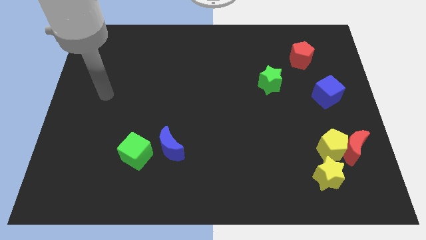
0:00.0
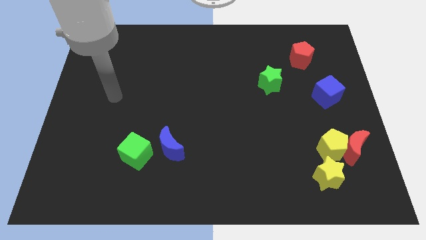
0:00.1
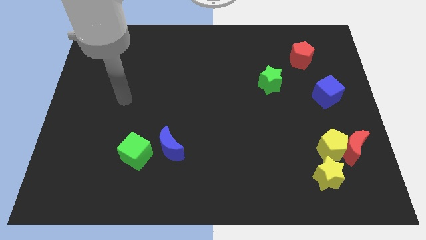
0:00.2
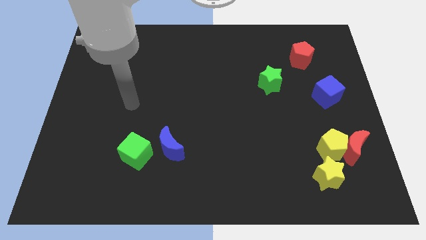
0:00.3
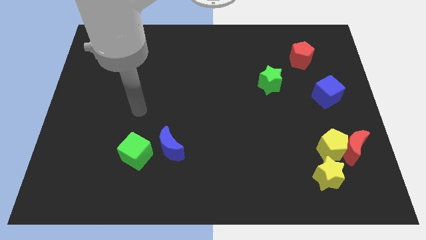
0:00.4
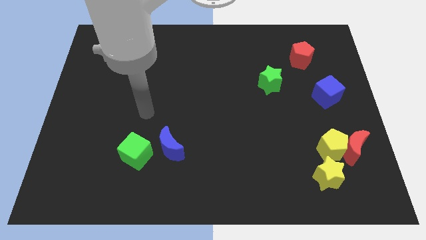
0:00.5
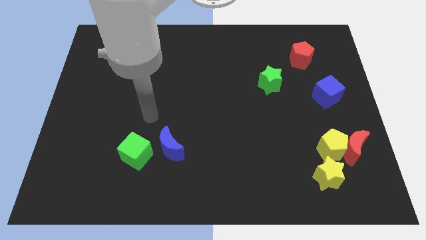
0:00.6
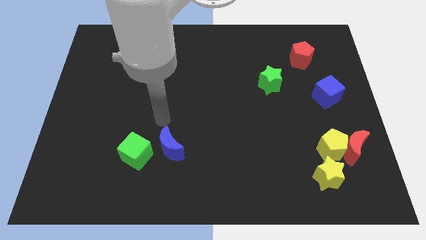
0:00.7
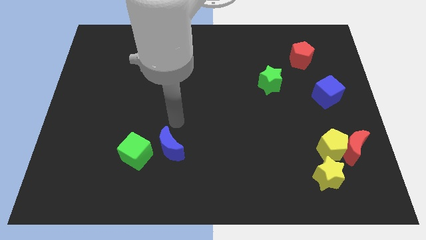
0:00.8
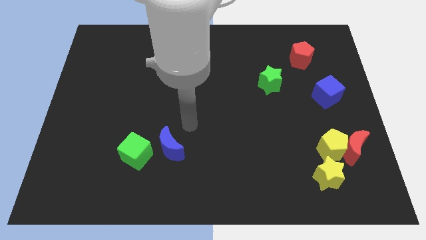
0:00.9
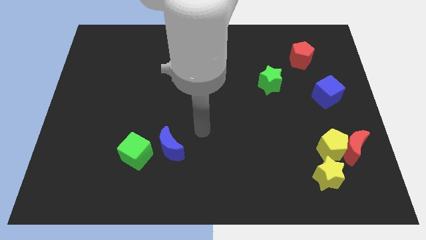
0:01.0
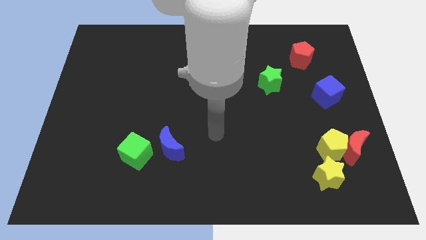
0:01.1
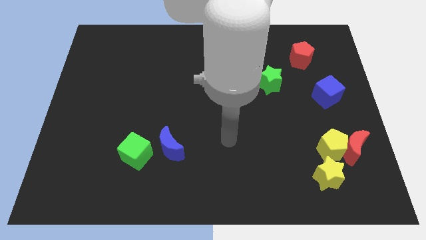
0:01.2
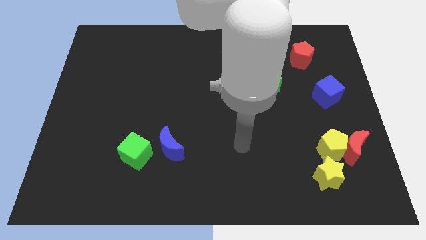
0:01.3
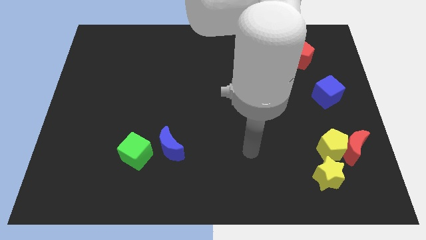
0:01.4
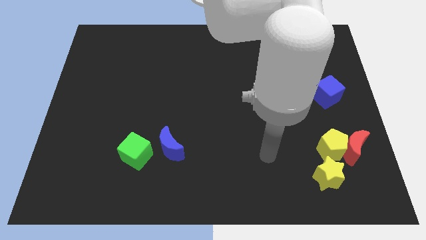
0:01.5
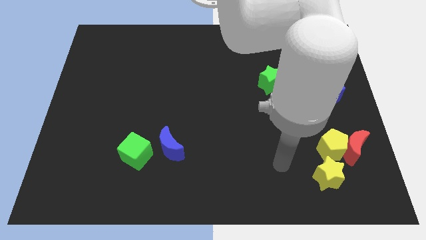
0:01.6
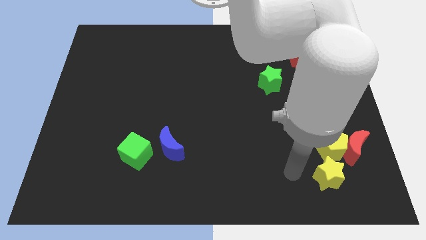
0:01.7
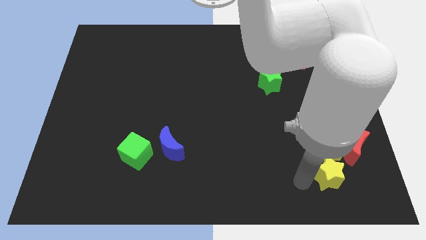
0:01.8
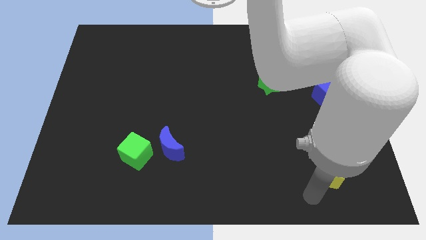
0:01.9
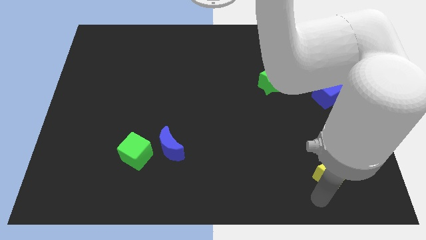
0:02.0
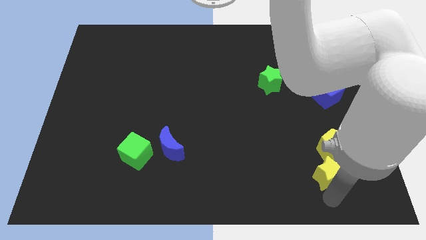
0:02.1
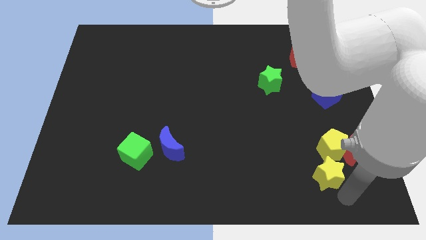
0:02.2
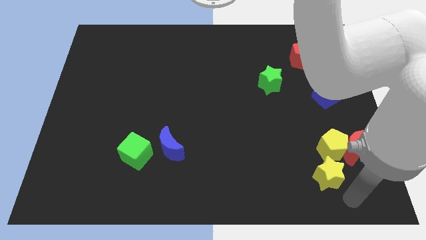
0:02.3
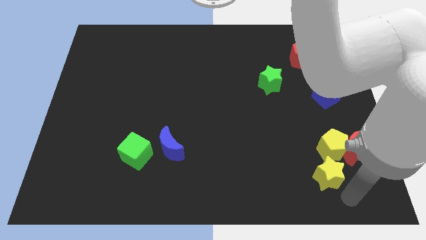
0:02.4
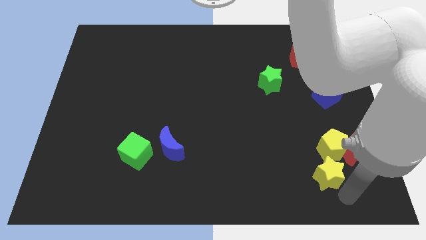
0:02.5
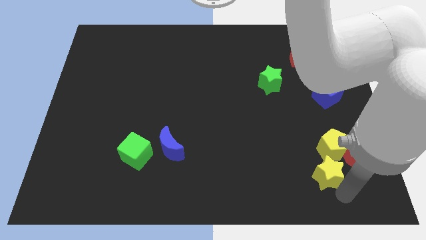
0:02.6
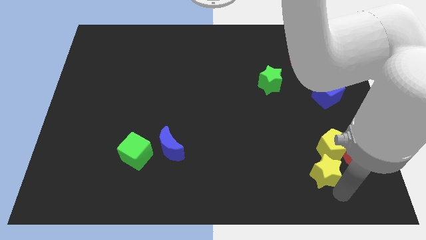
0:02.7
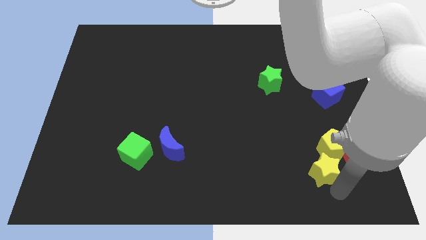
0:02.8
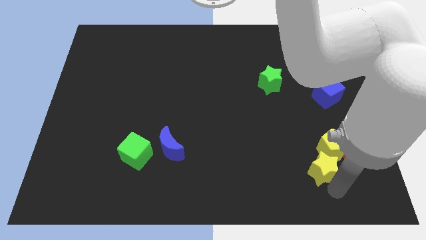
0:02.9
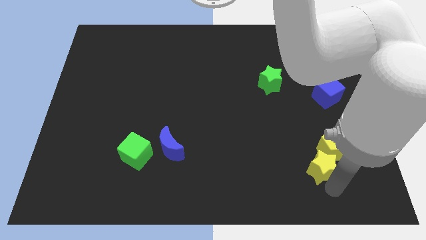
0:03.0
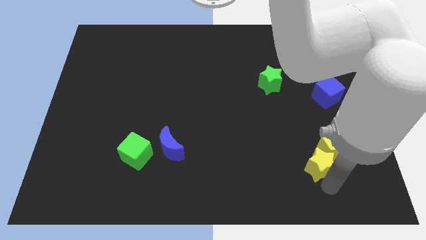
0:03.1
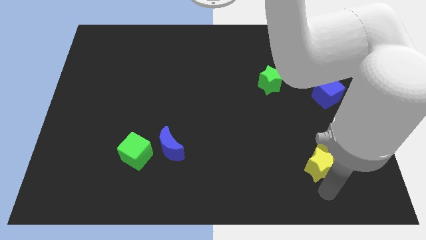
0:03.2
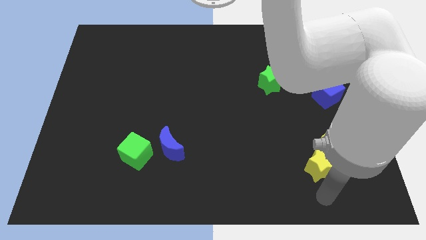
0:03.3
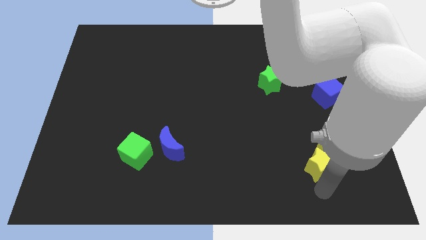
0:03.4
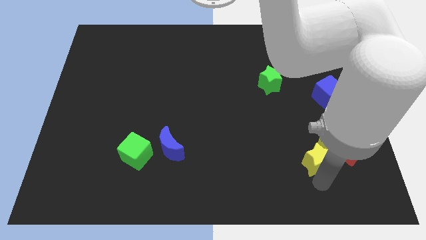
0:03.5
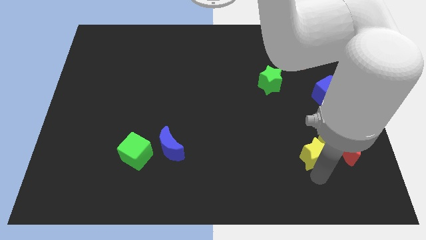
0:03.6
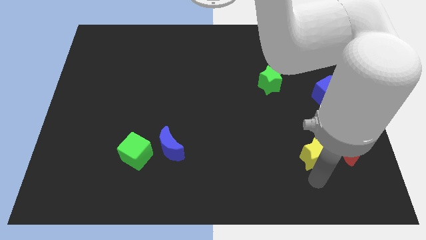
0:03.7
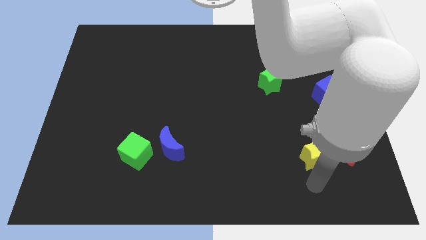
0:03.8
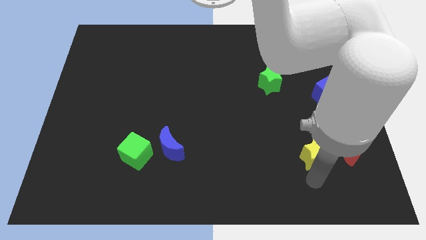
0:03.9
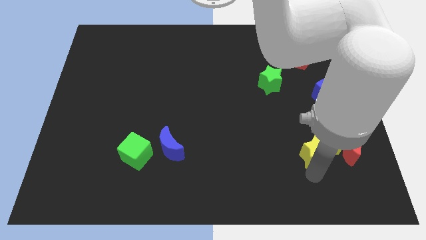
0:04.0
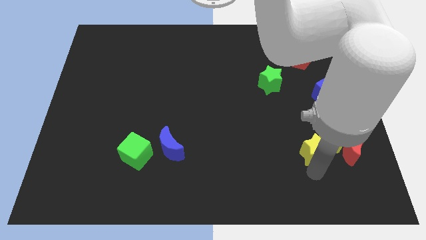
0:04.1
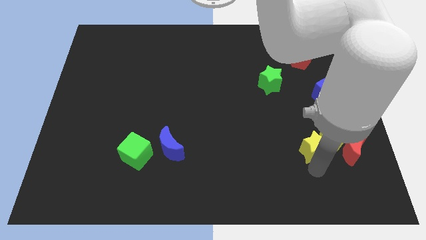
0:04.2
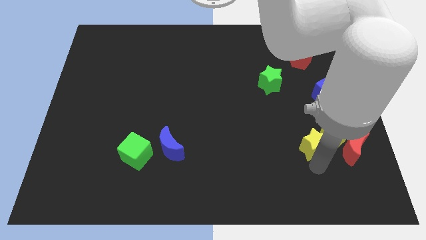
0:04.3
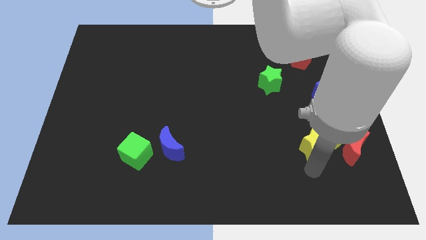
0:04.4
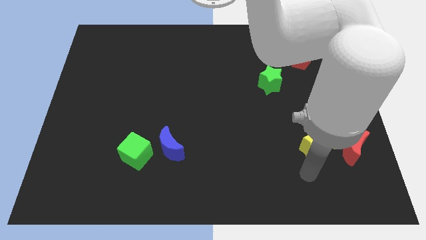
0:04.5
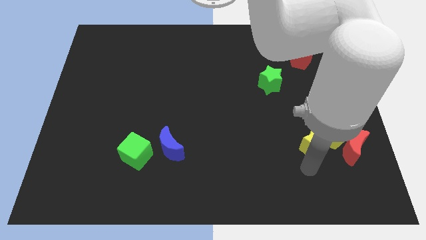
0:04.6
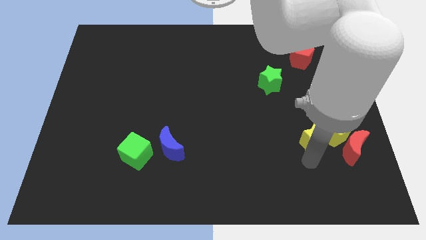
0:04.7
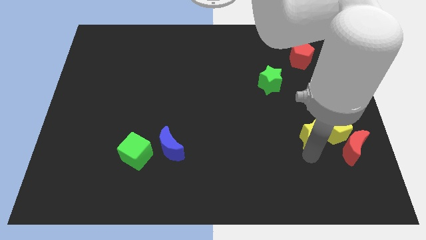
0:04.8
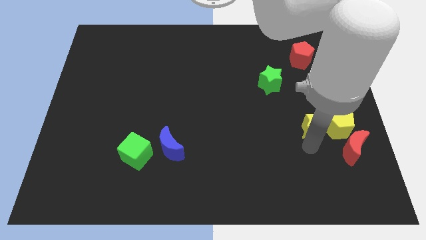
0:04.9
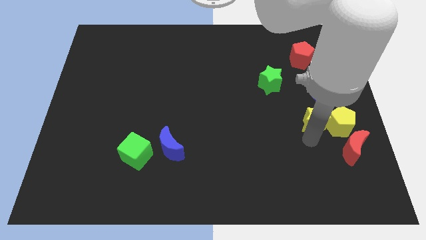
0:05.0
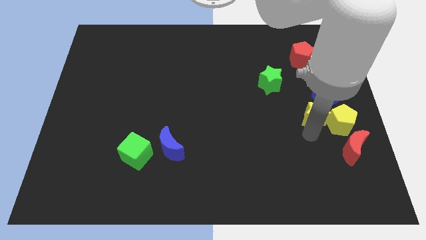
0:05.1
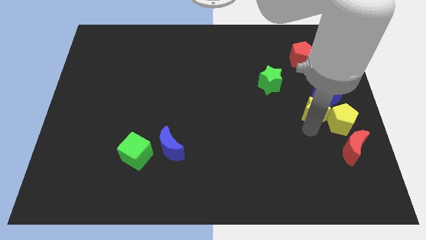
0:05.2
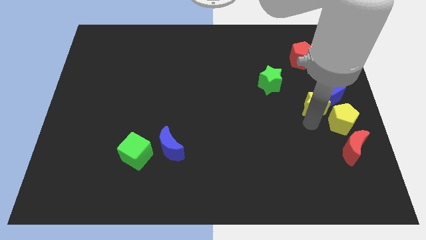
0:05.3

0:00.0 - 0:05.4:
put the yellow star next to the blue cube

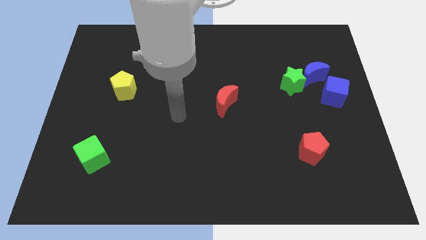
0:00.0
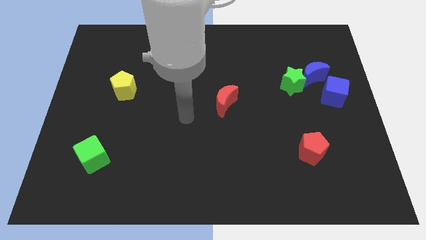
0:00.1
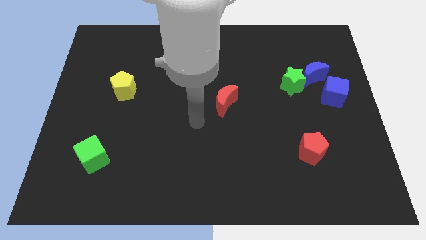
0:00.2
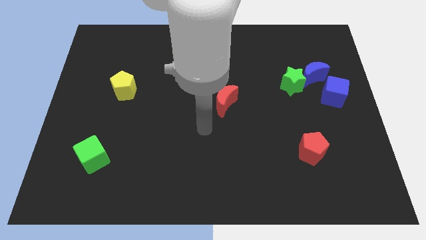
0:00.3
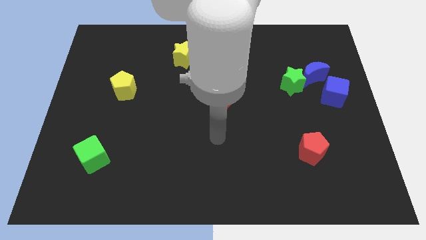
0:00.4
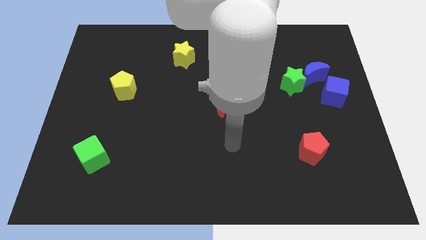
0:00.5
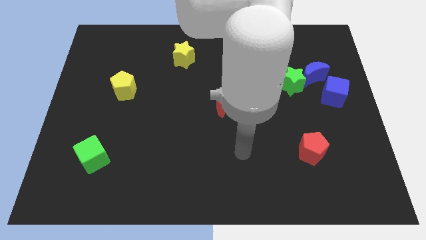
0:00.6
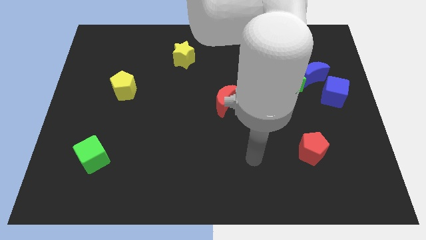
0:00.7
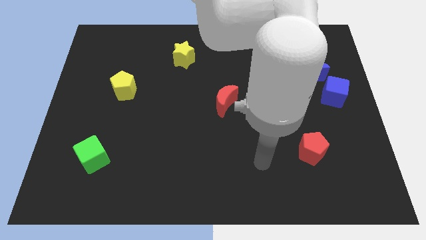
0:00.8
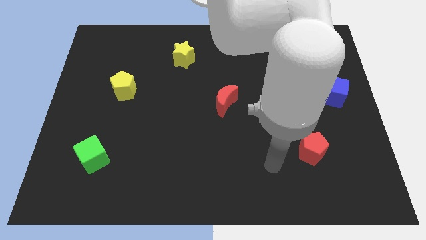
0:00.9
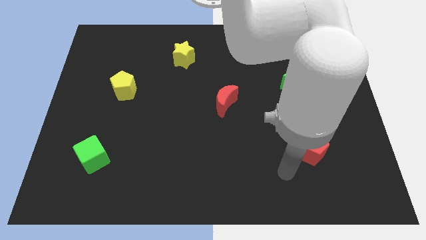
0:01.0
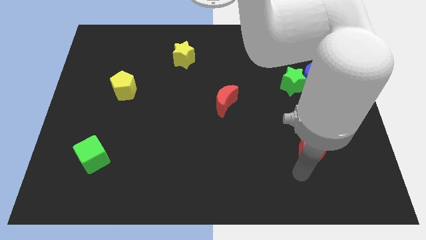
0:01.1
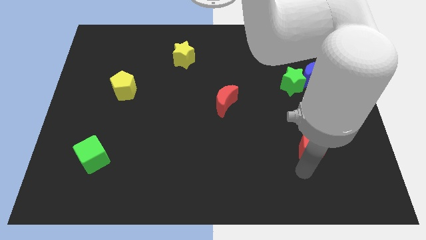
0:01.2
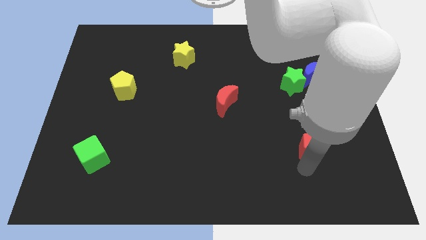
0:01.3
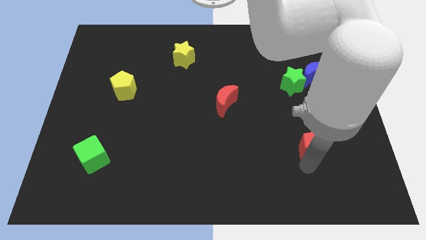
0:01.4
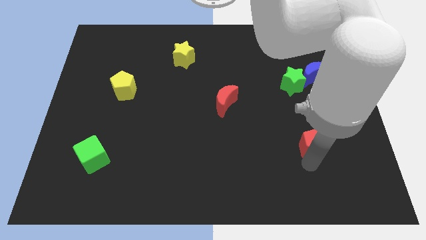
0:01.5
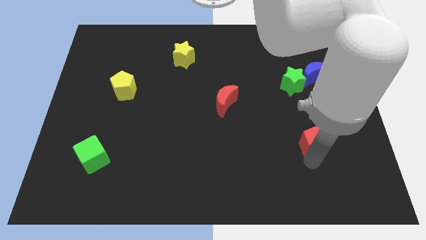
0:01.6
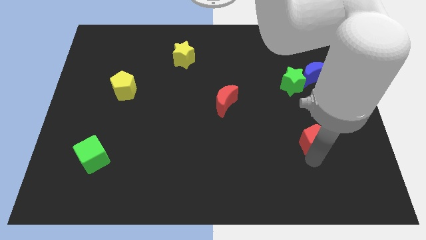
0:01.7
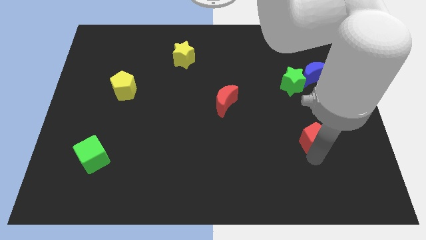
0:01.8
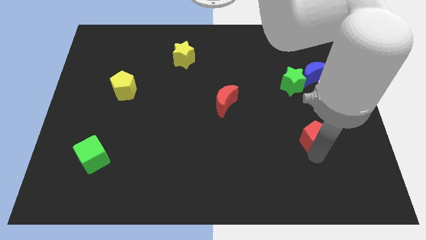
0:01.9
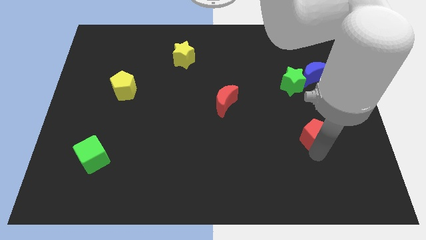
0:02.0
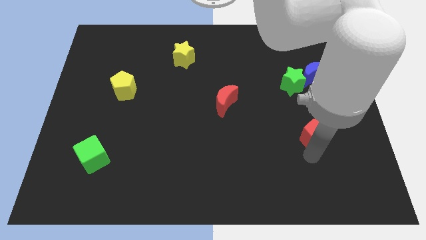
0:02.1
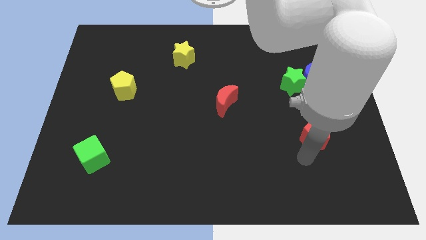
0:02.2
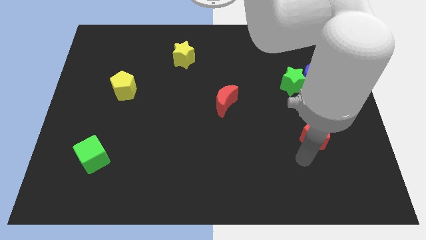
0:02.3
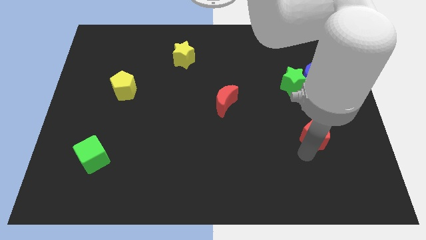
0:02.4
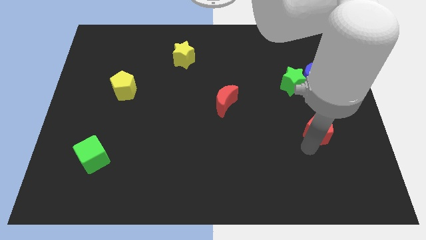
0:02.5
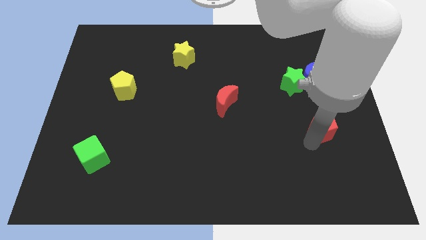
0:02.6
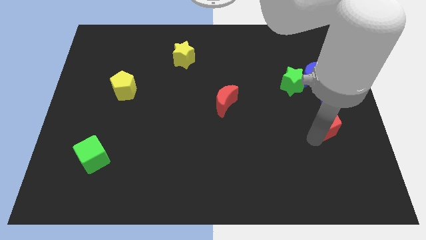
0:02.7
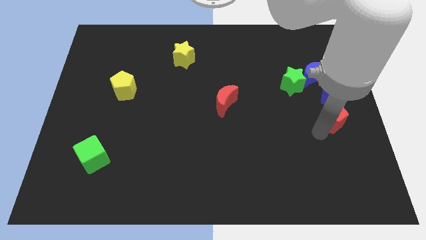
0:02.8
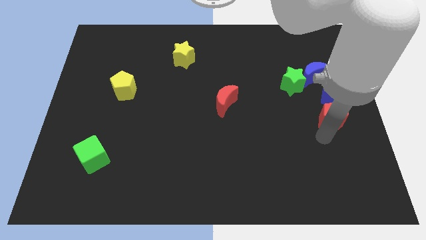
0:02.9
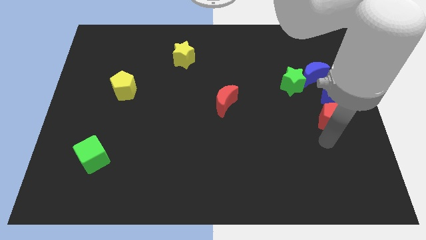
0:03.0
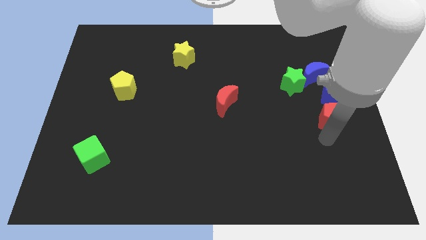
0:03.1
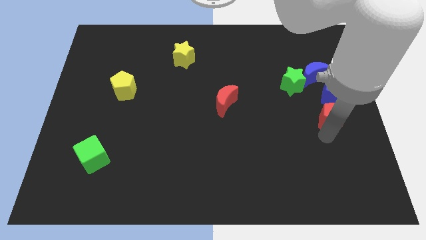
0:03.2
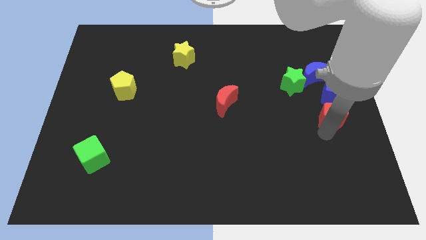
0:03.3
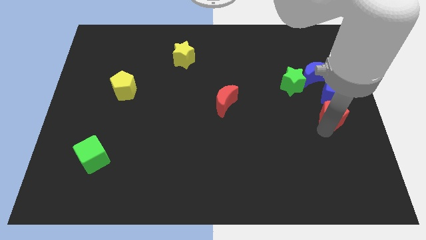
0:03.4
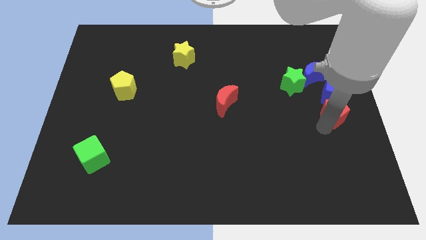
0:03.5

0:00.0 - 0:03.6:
put the red pentagon to the blue cube
